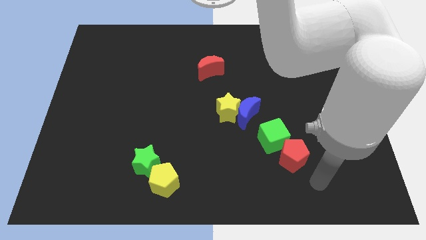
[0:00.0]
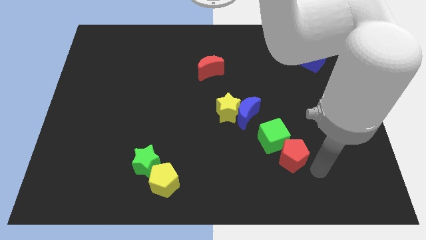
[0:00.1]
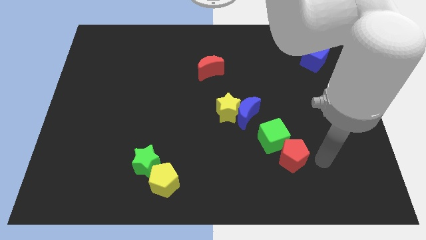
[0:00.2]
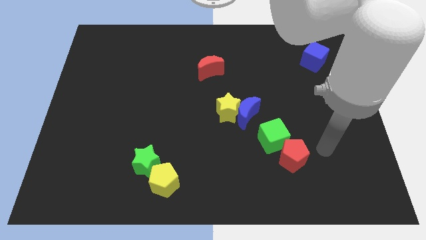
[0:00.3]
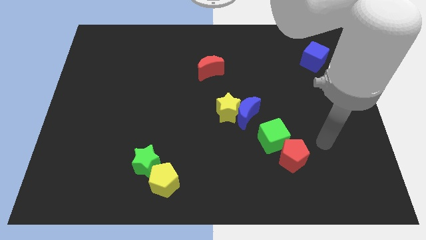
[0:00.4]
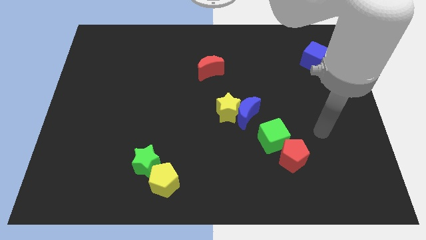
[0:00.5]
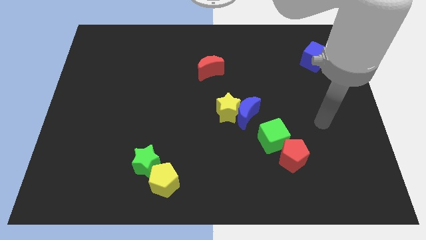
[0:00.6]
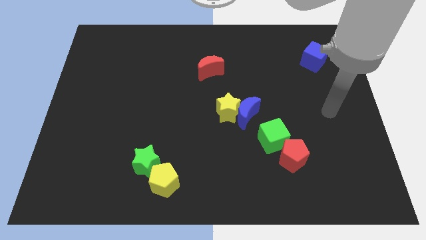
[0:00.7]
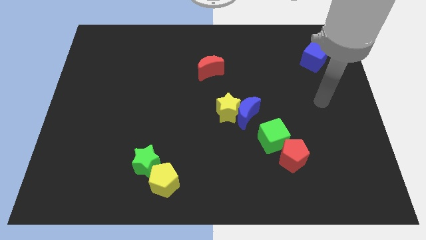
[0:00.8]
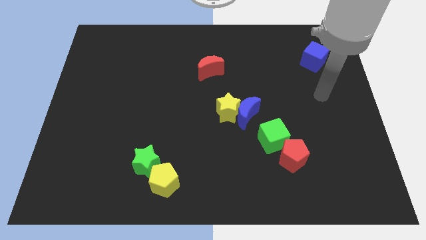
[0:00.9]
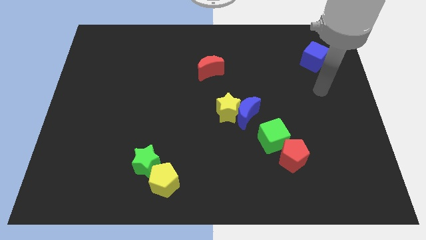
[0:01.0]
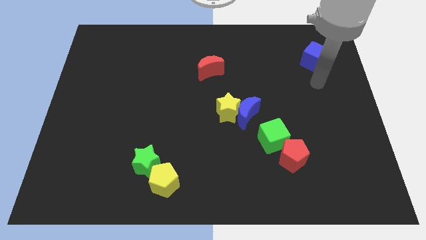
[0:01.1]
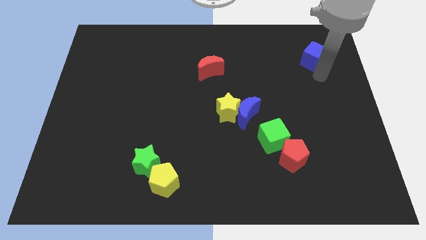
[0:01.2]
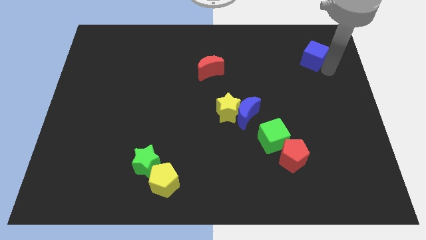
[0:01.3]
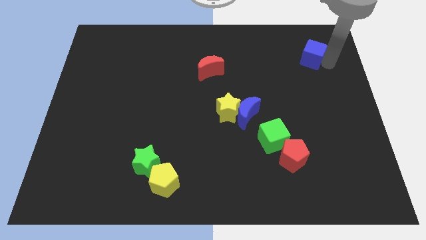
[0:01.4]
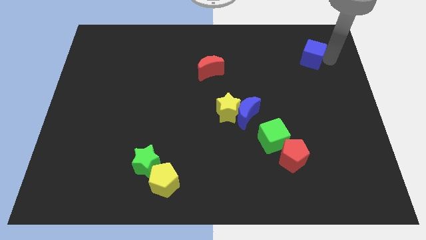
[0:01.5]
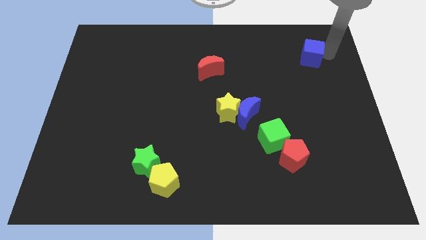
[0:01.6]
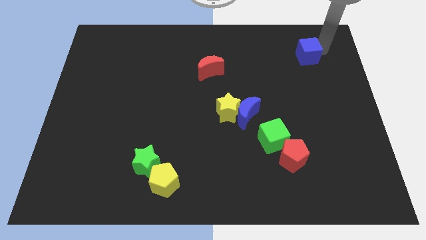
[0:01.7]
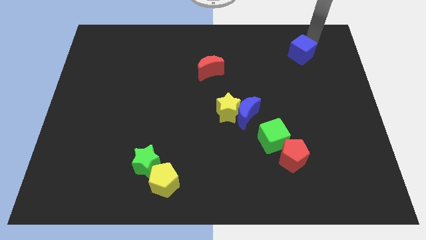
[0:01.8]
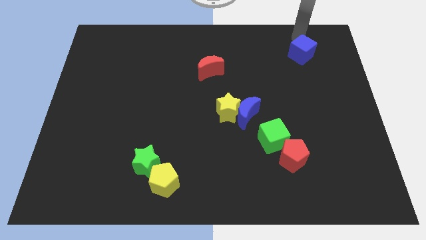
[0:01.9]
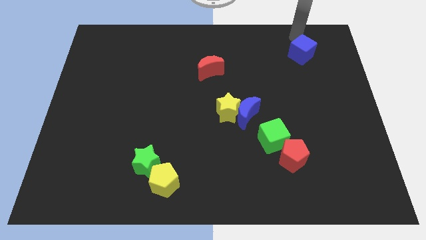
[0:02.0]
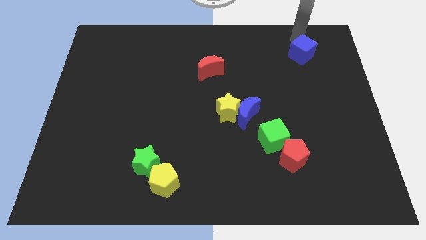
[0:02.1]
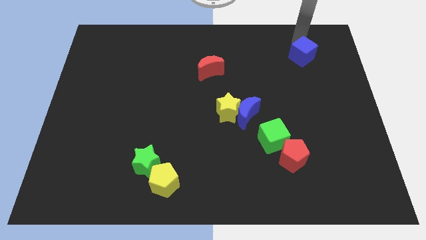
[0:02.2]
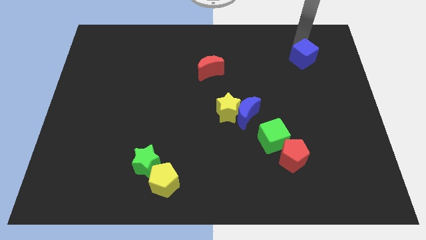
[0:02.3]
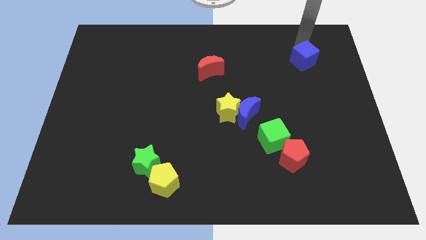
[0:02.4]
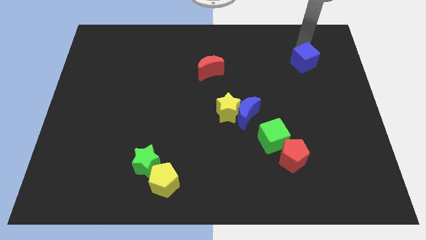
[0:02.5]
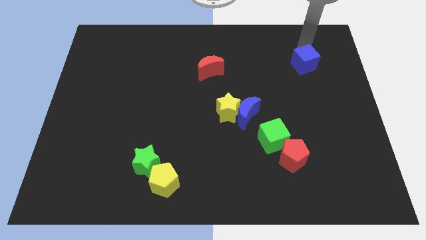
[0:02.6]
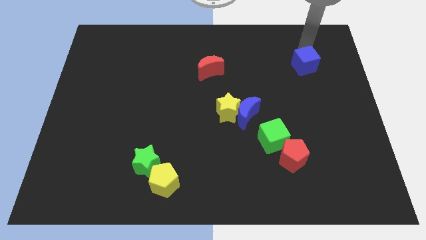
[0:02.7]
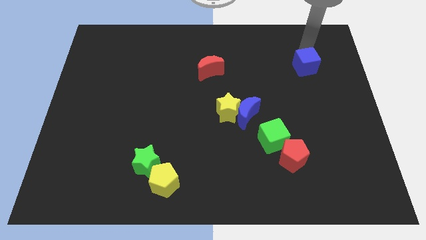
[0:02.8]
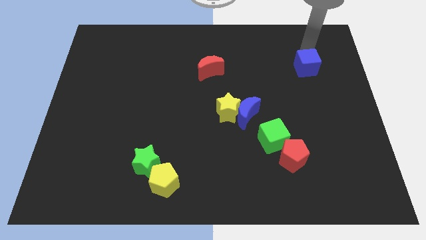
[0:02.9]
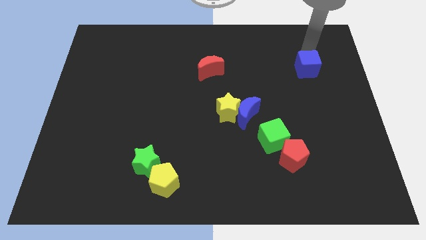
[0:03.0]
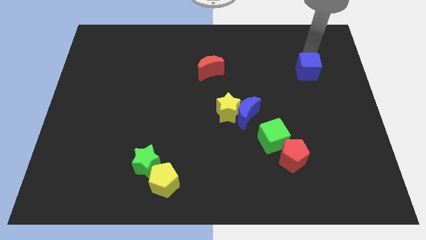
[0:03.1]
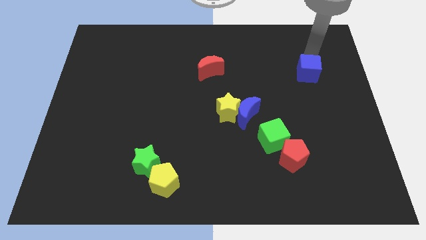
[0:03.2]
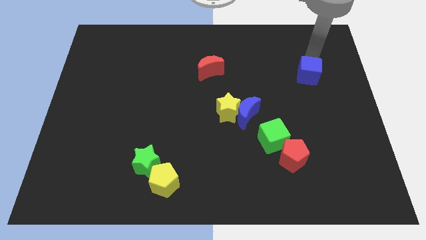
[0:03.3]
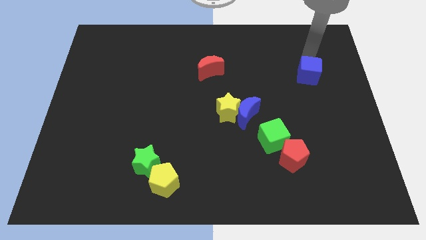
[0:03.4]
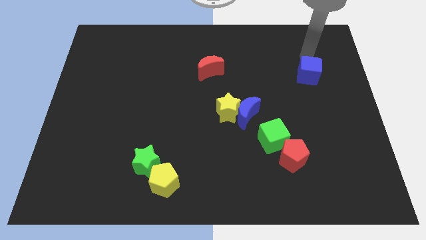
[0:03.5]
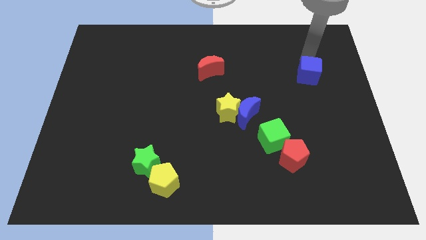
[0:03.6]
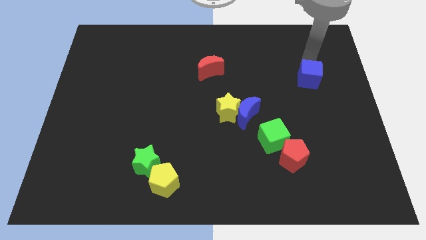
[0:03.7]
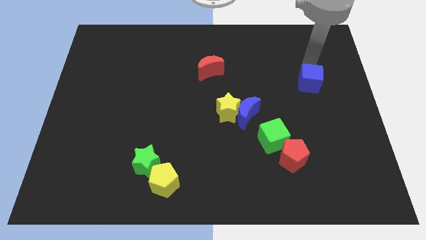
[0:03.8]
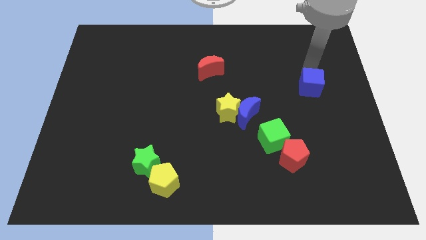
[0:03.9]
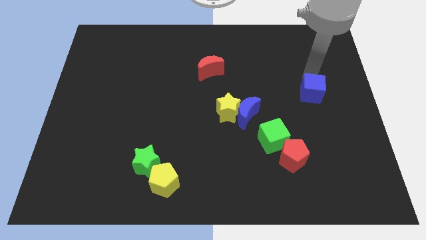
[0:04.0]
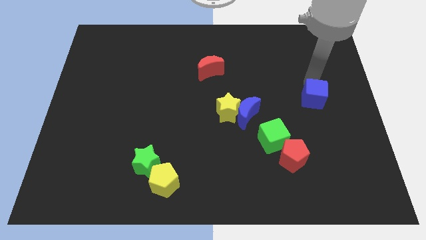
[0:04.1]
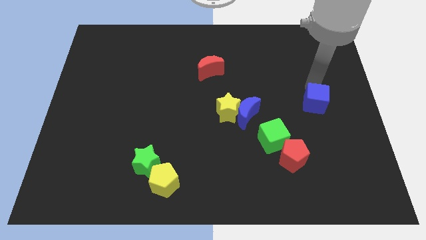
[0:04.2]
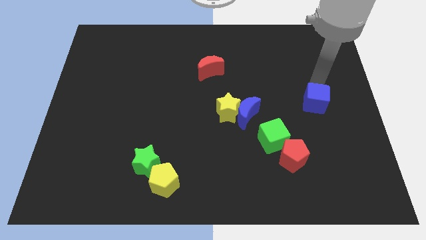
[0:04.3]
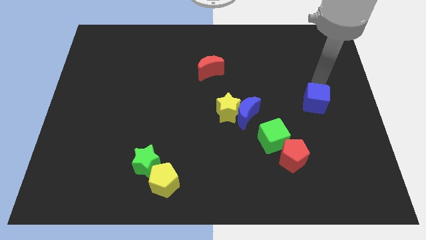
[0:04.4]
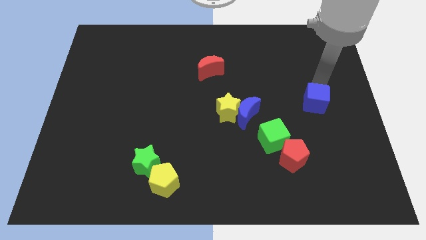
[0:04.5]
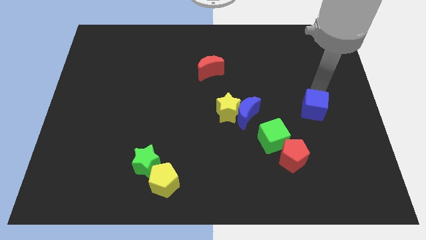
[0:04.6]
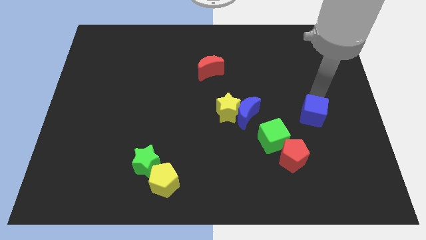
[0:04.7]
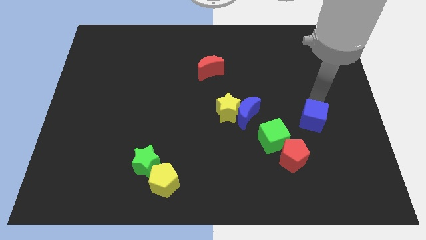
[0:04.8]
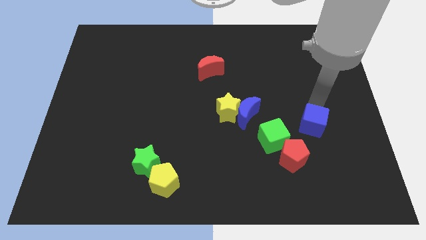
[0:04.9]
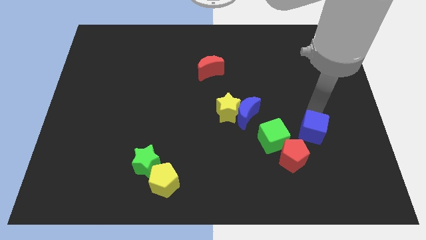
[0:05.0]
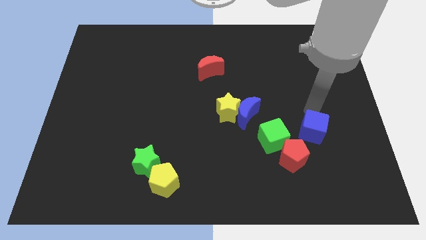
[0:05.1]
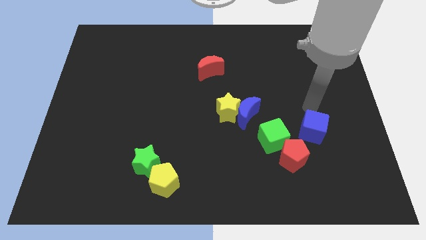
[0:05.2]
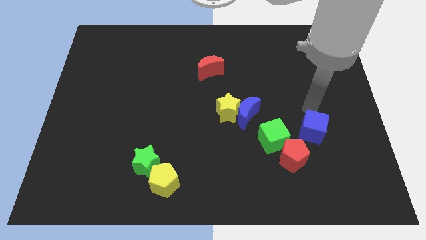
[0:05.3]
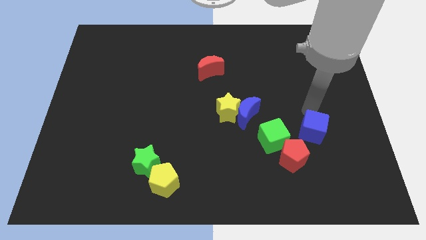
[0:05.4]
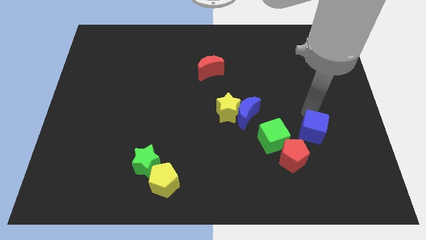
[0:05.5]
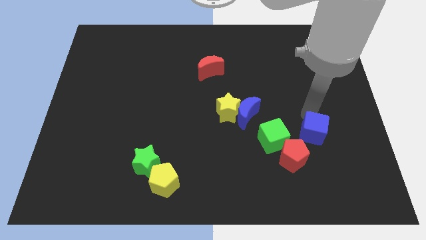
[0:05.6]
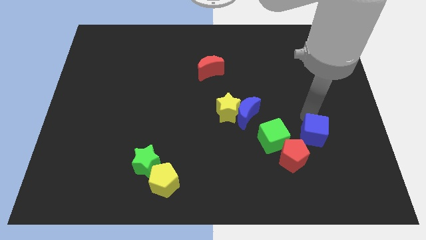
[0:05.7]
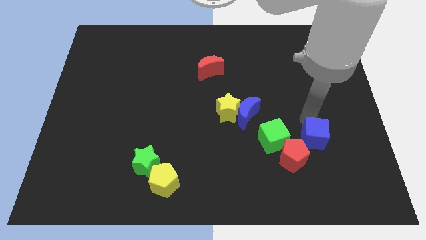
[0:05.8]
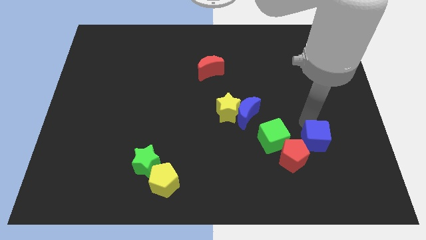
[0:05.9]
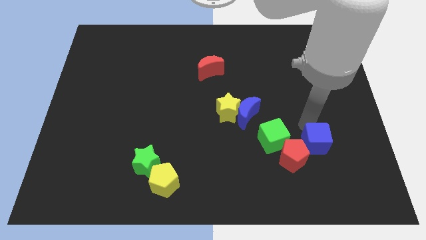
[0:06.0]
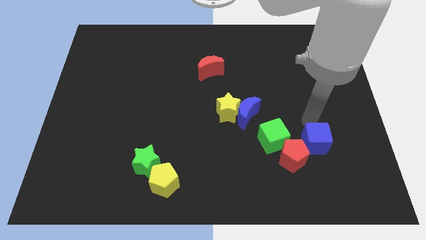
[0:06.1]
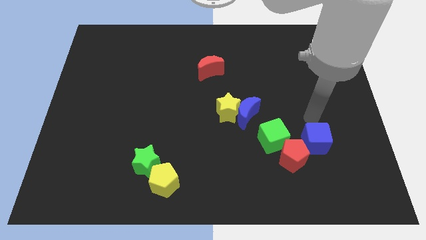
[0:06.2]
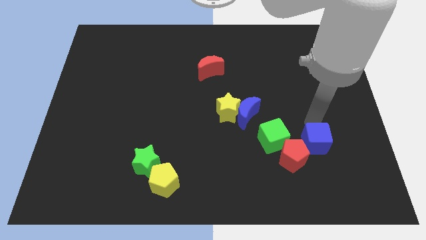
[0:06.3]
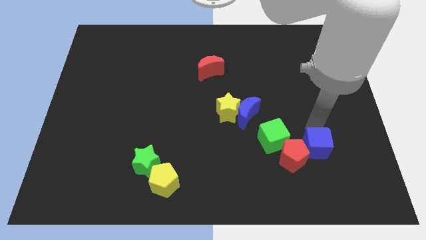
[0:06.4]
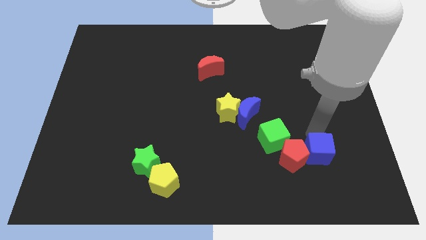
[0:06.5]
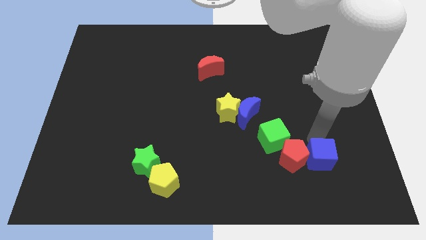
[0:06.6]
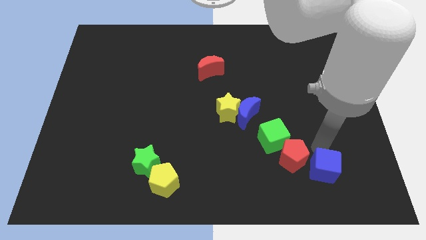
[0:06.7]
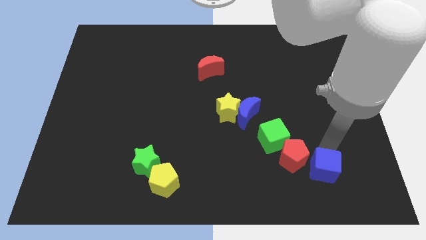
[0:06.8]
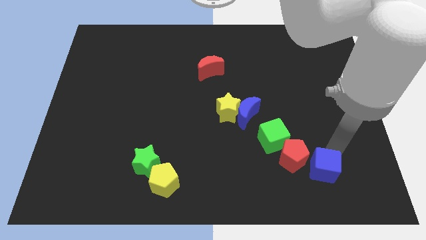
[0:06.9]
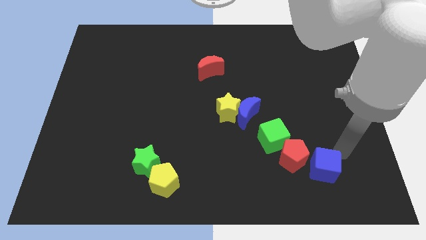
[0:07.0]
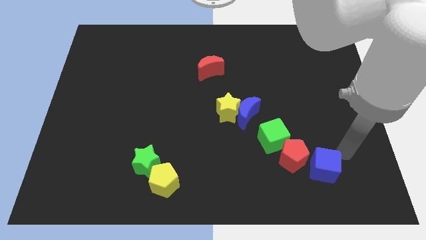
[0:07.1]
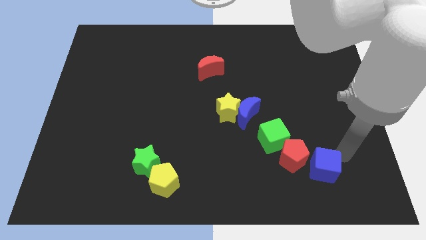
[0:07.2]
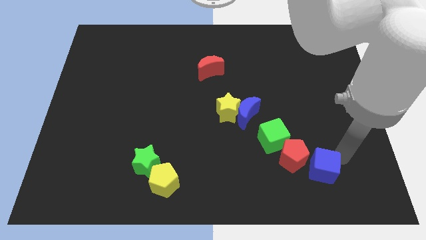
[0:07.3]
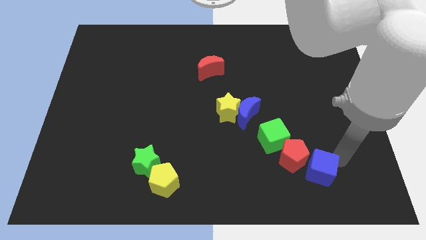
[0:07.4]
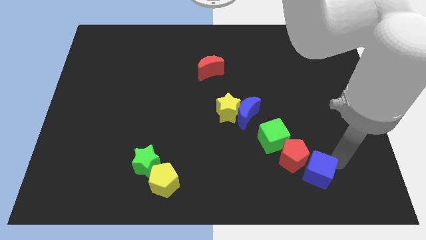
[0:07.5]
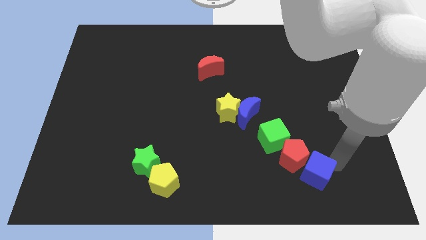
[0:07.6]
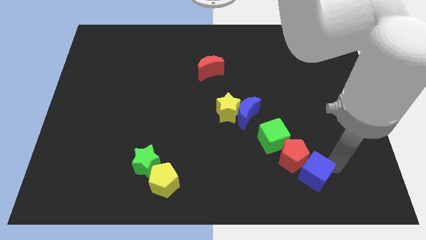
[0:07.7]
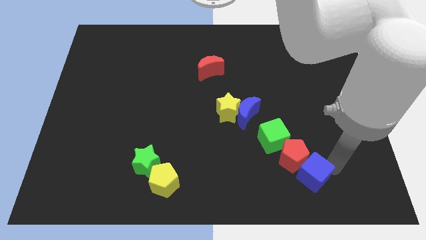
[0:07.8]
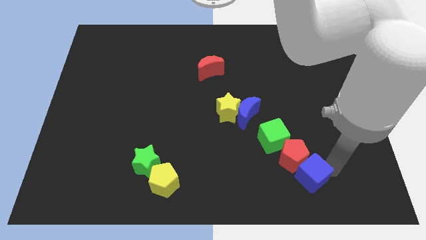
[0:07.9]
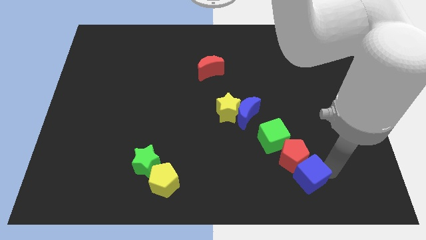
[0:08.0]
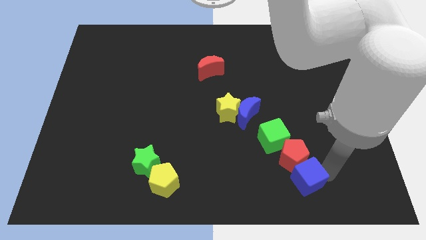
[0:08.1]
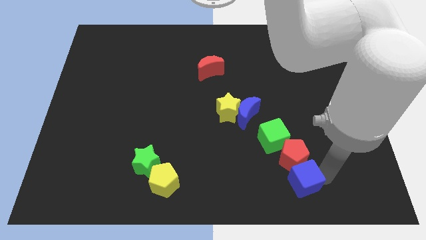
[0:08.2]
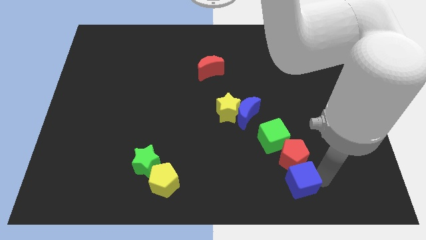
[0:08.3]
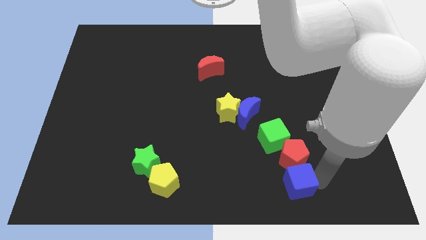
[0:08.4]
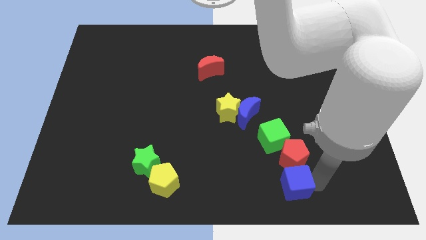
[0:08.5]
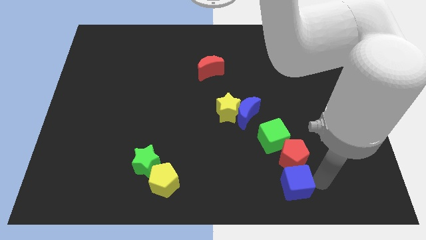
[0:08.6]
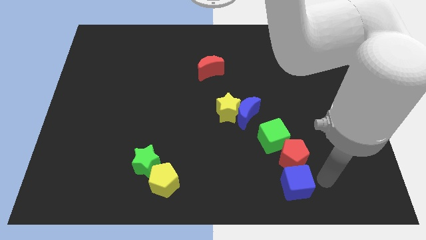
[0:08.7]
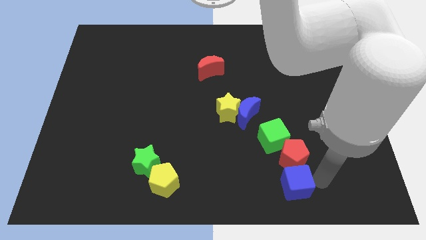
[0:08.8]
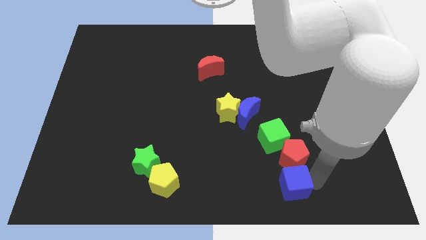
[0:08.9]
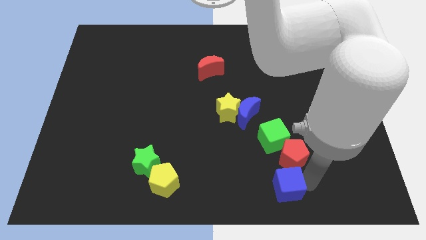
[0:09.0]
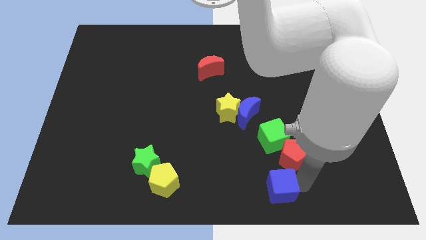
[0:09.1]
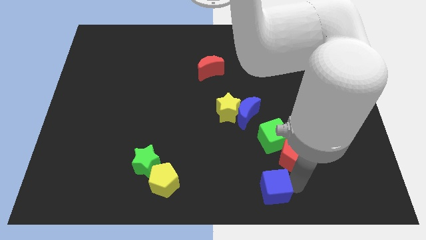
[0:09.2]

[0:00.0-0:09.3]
slide the blue cube to the bottom
